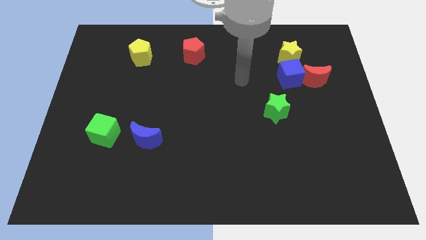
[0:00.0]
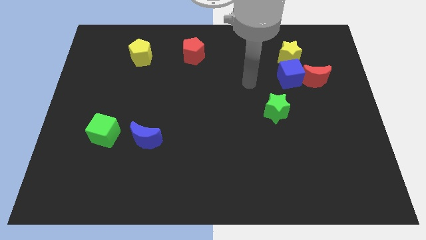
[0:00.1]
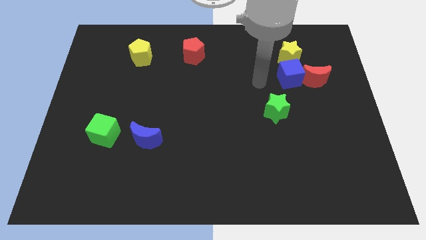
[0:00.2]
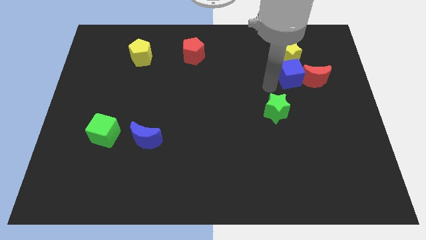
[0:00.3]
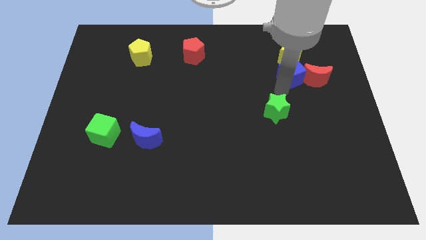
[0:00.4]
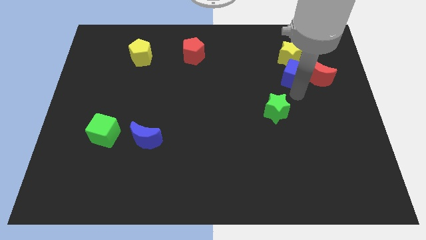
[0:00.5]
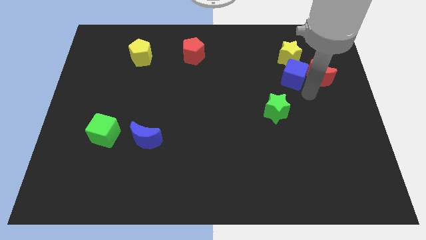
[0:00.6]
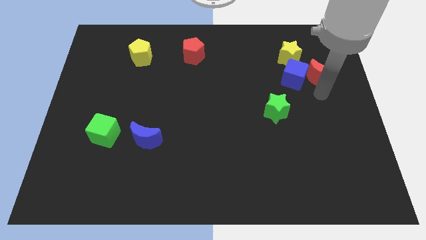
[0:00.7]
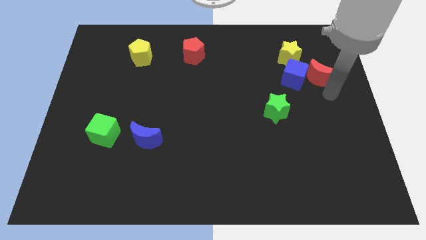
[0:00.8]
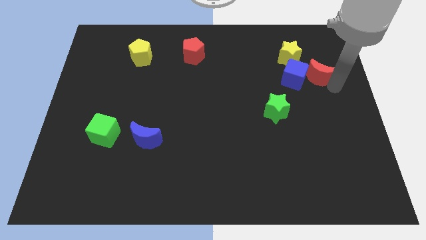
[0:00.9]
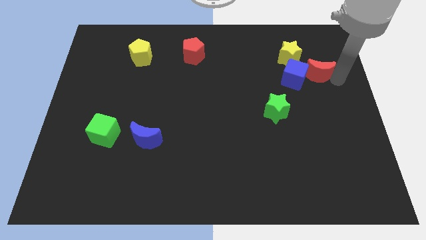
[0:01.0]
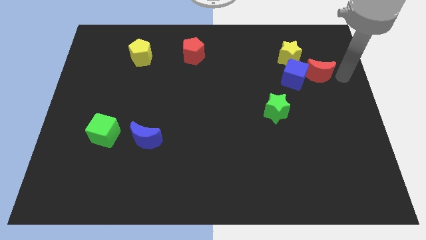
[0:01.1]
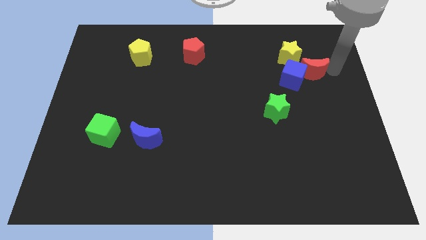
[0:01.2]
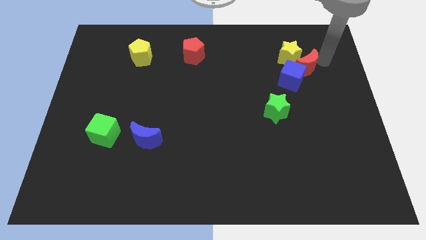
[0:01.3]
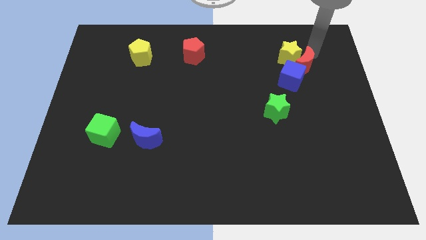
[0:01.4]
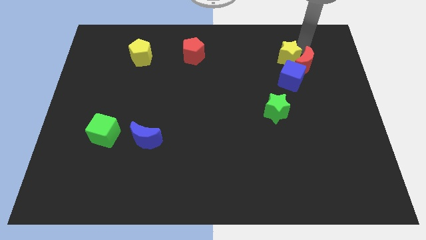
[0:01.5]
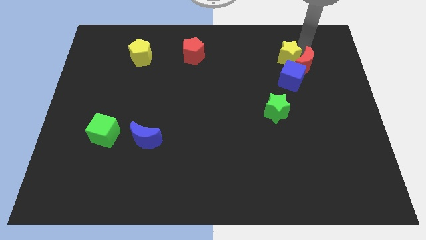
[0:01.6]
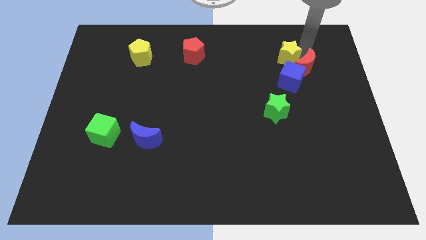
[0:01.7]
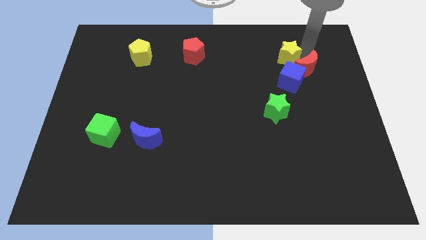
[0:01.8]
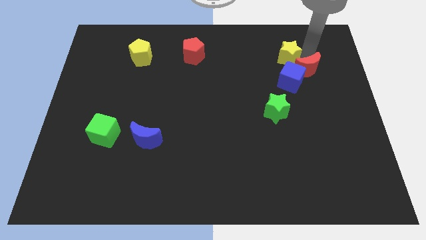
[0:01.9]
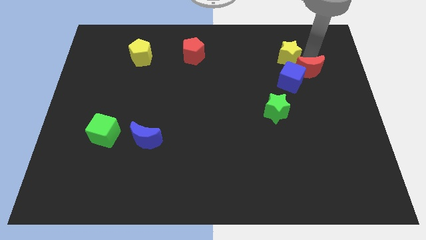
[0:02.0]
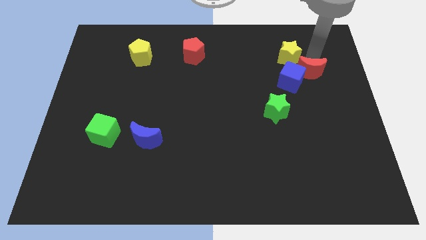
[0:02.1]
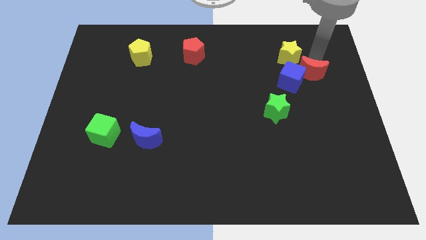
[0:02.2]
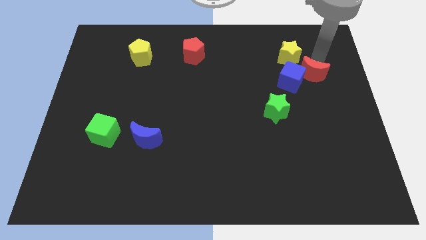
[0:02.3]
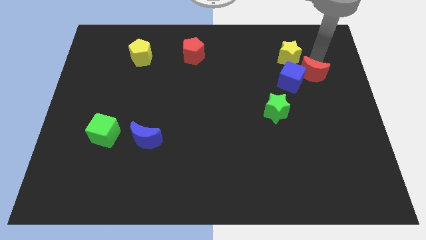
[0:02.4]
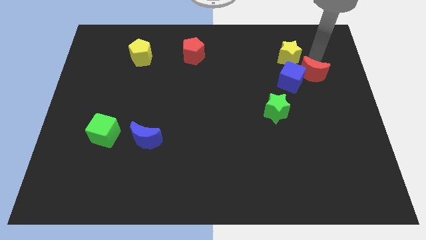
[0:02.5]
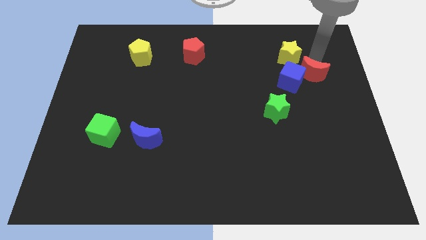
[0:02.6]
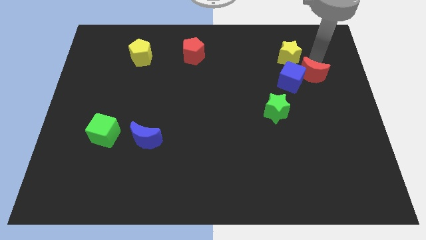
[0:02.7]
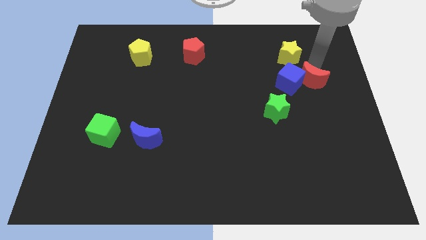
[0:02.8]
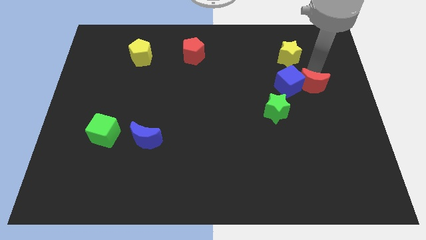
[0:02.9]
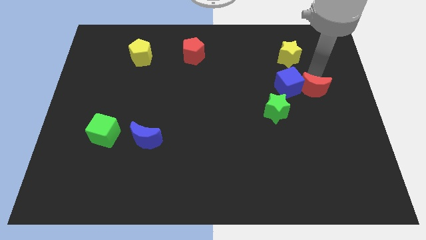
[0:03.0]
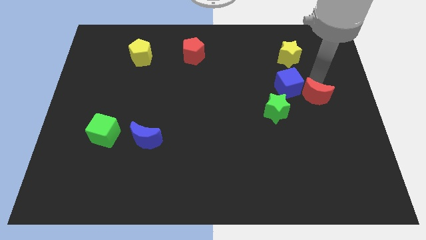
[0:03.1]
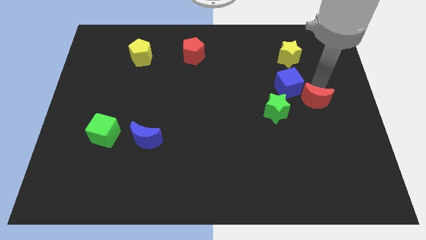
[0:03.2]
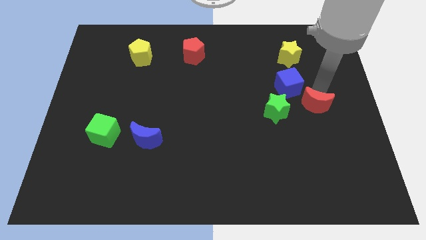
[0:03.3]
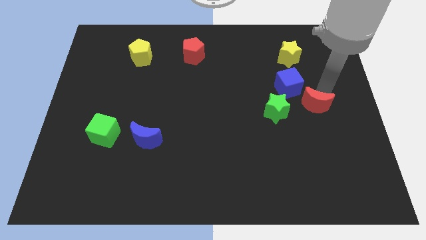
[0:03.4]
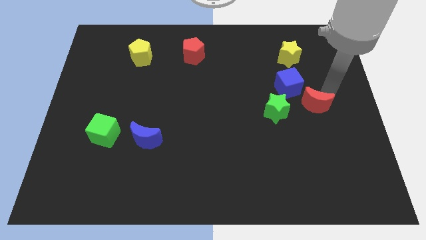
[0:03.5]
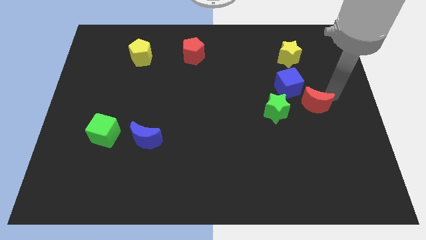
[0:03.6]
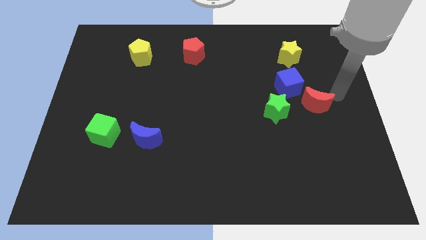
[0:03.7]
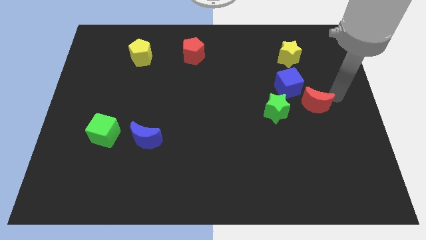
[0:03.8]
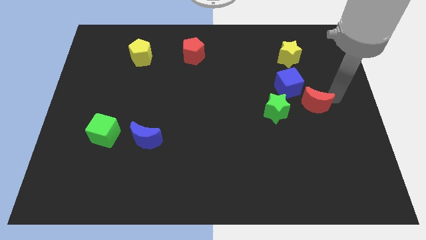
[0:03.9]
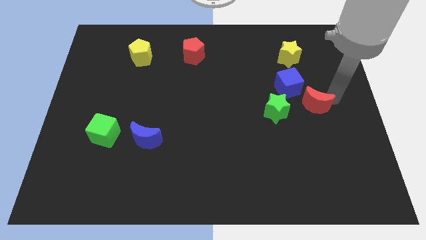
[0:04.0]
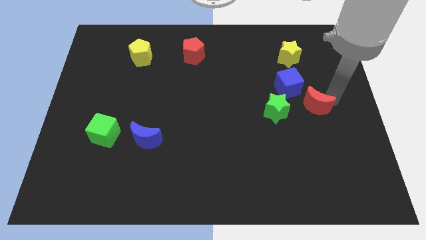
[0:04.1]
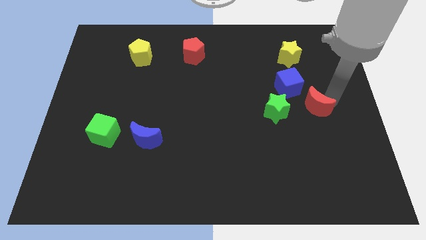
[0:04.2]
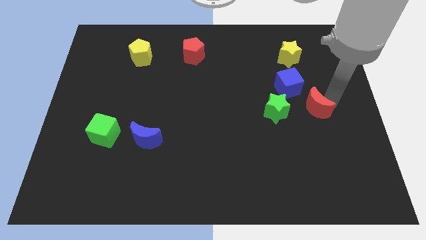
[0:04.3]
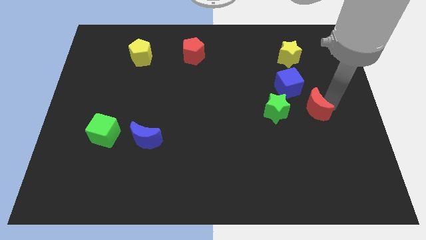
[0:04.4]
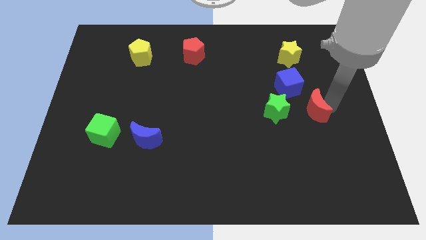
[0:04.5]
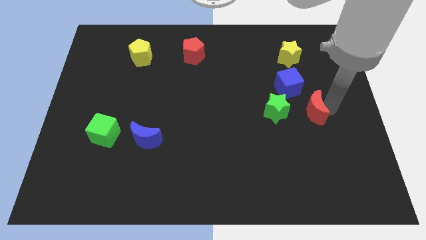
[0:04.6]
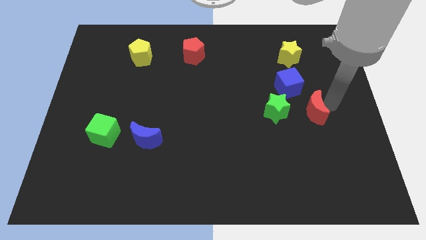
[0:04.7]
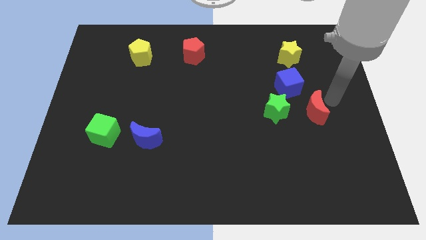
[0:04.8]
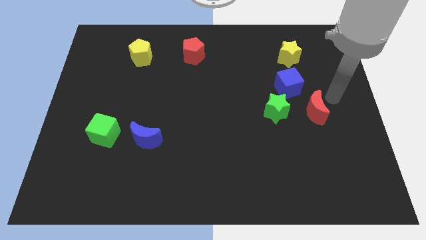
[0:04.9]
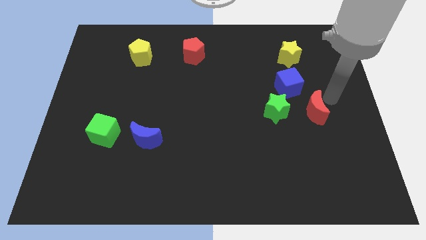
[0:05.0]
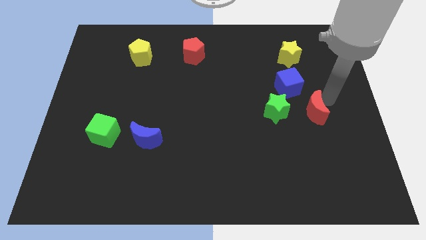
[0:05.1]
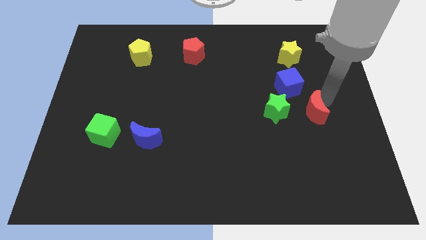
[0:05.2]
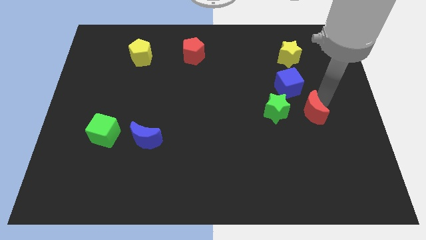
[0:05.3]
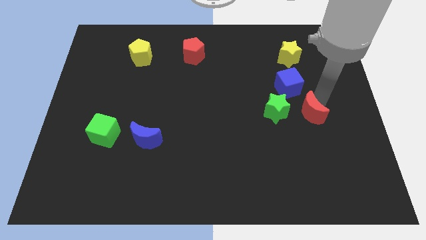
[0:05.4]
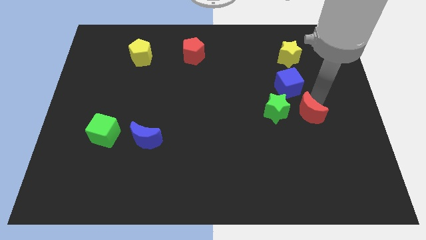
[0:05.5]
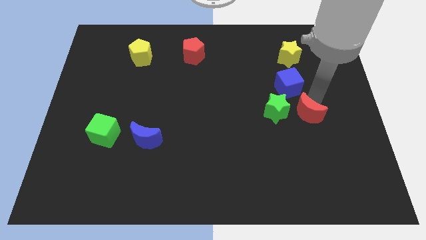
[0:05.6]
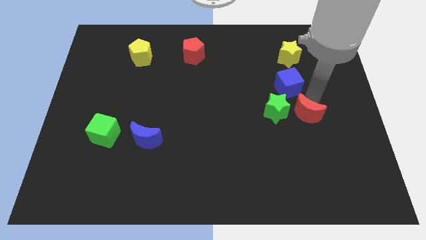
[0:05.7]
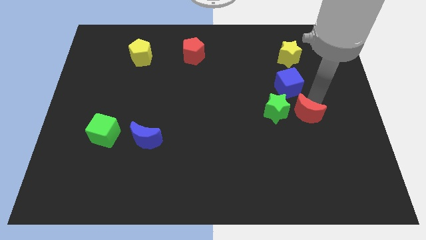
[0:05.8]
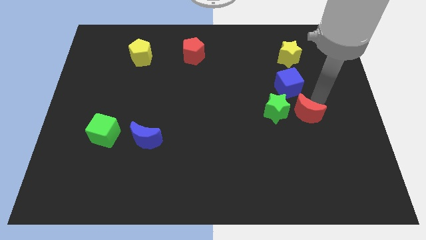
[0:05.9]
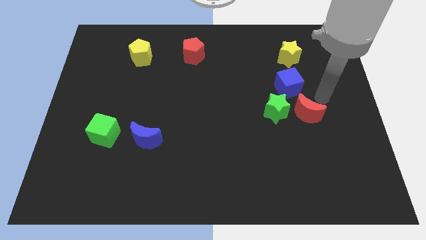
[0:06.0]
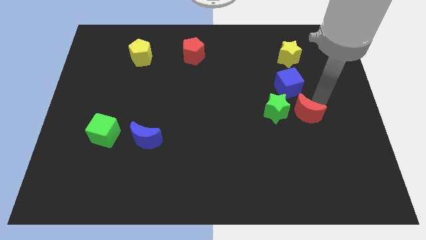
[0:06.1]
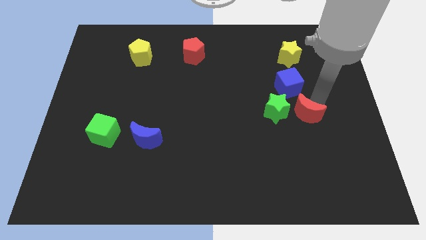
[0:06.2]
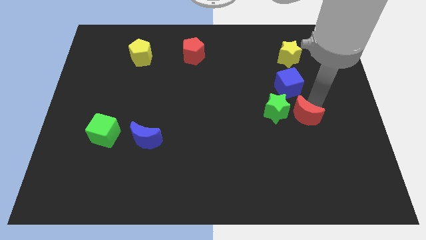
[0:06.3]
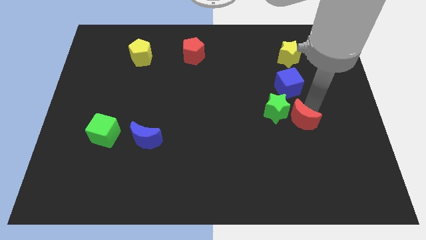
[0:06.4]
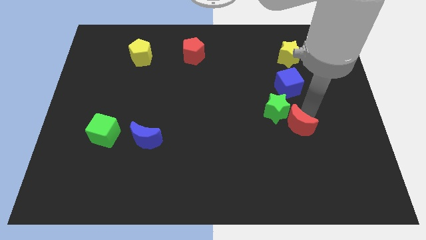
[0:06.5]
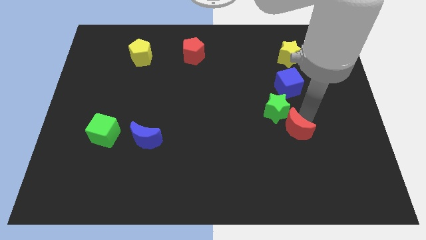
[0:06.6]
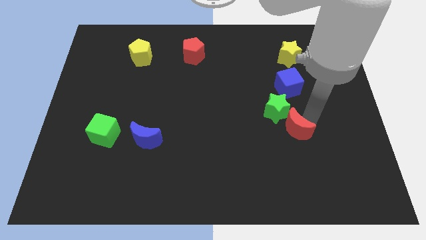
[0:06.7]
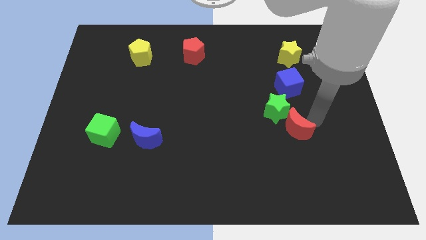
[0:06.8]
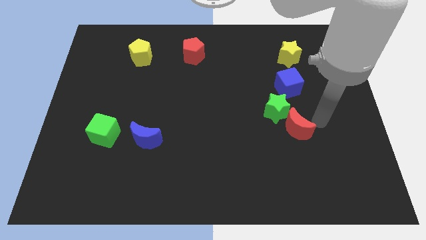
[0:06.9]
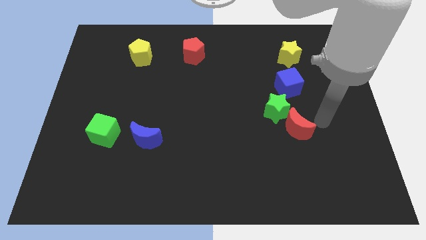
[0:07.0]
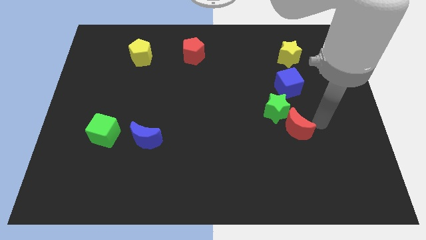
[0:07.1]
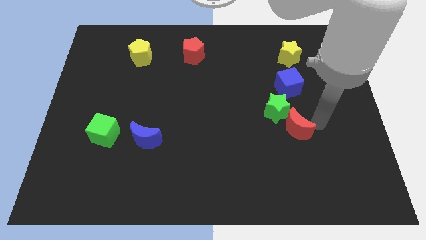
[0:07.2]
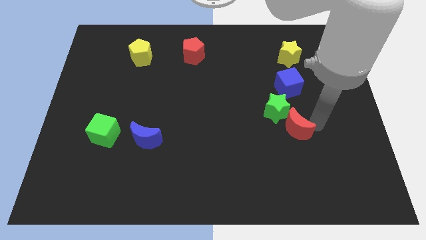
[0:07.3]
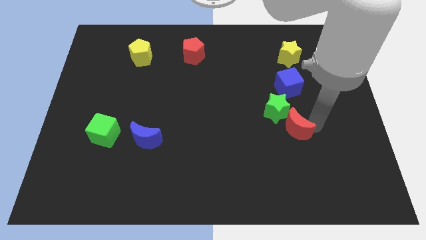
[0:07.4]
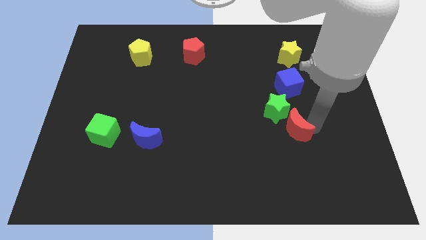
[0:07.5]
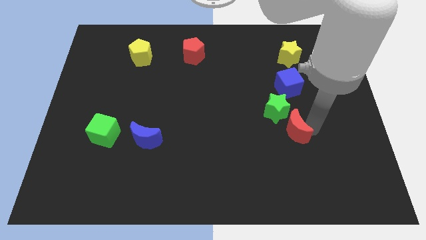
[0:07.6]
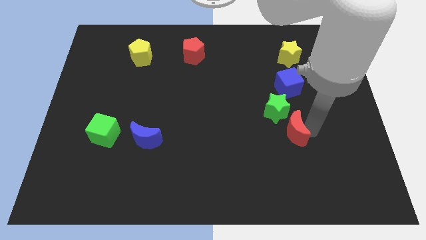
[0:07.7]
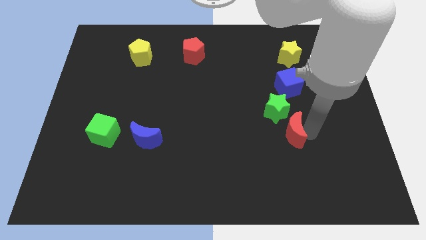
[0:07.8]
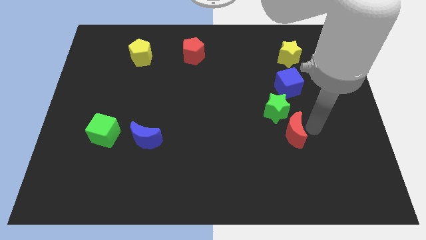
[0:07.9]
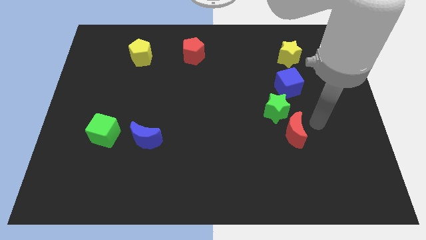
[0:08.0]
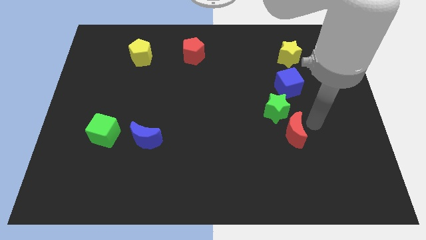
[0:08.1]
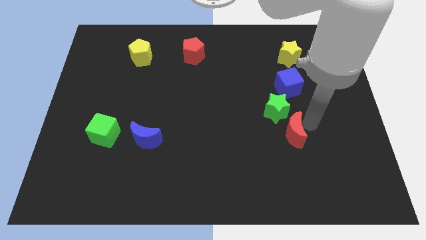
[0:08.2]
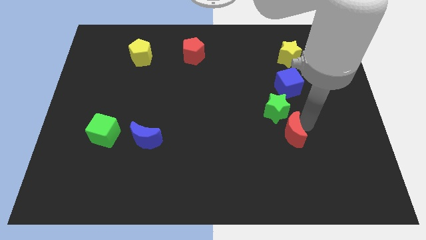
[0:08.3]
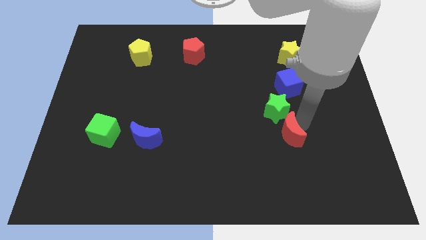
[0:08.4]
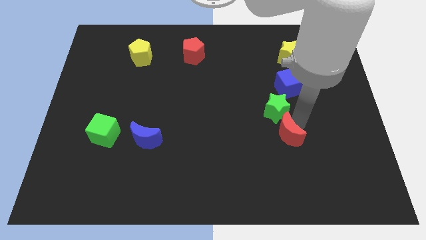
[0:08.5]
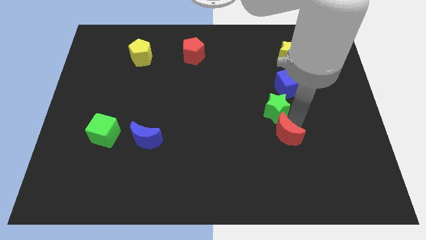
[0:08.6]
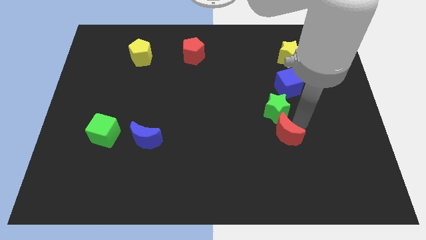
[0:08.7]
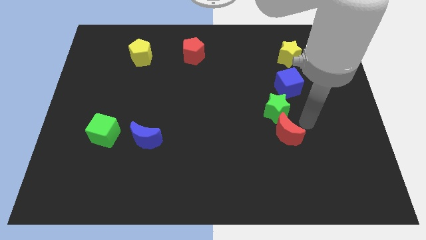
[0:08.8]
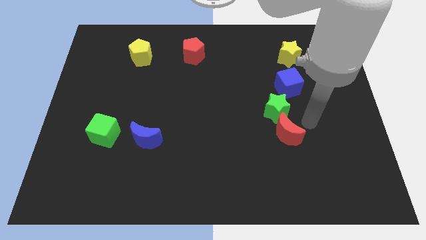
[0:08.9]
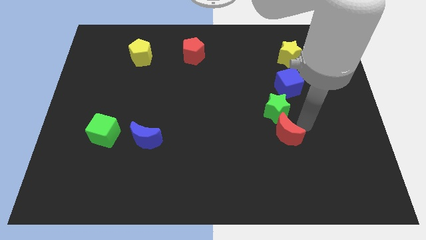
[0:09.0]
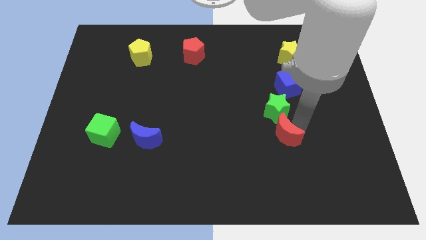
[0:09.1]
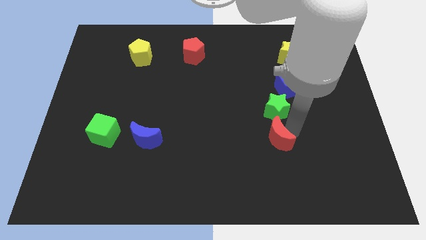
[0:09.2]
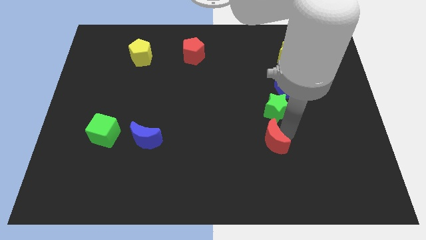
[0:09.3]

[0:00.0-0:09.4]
slide the red moon down and to the left diagonally
